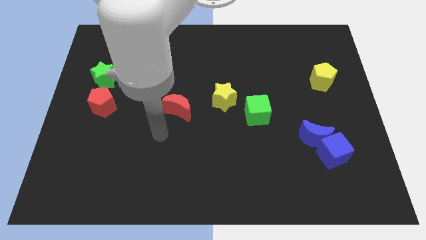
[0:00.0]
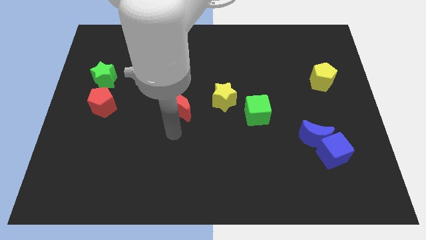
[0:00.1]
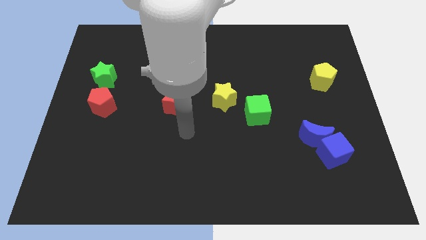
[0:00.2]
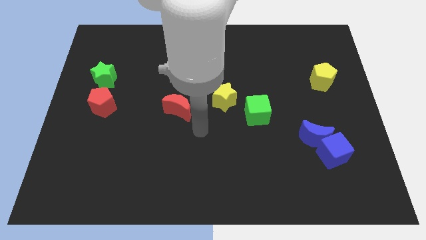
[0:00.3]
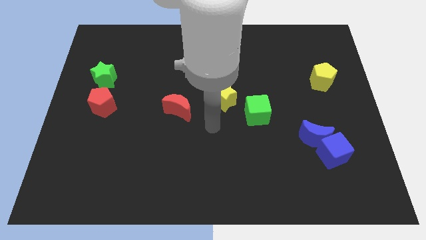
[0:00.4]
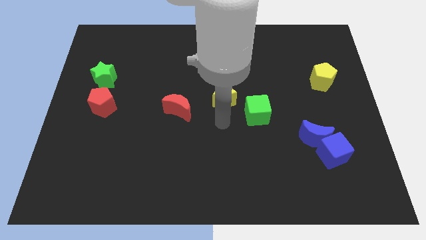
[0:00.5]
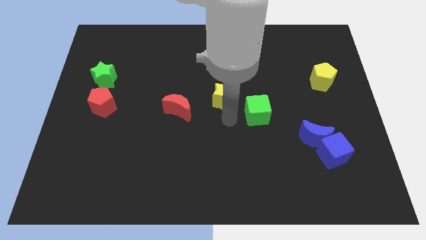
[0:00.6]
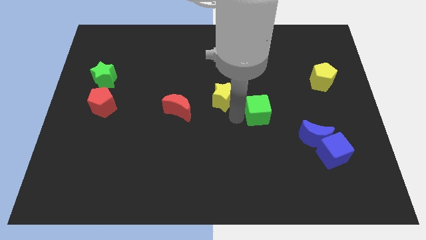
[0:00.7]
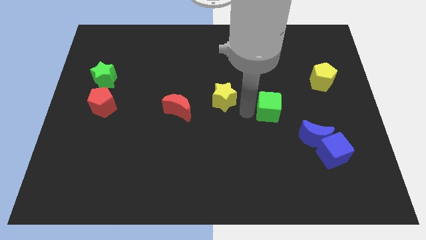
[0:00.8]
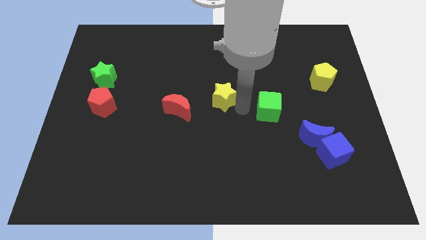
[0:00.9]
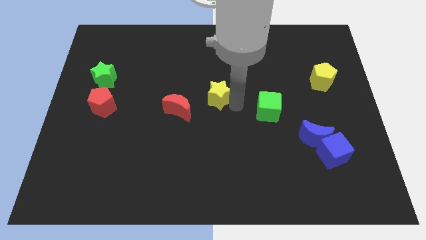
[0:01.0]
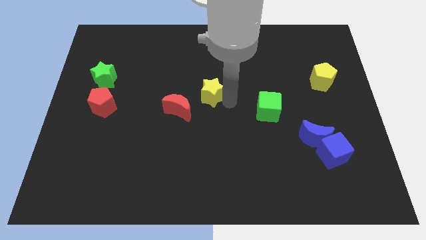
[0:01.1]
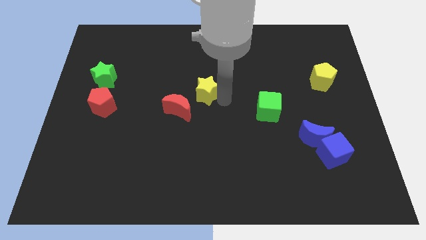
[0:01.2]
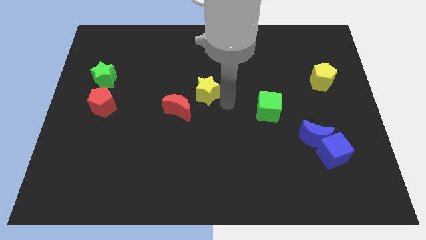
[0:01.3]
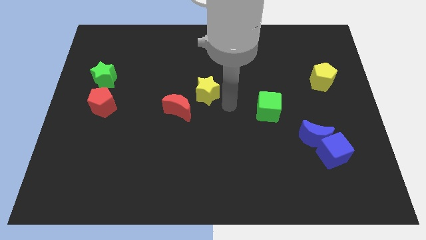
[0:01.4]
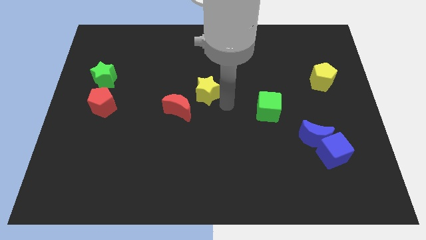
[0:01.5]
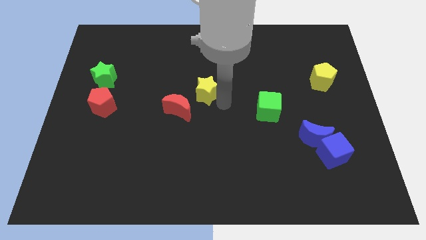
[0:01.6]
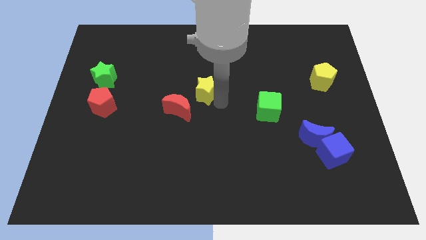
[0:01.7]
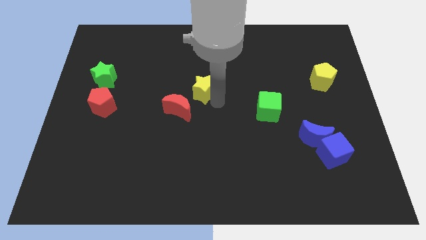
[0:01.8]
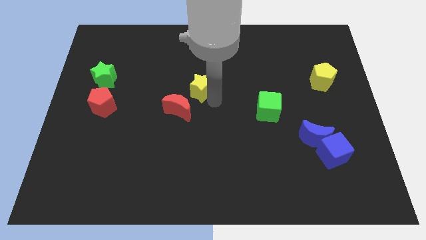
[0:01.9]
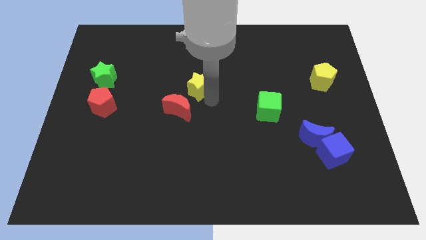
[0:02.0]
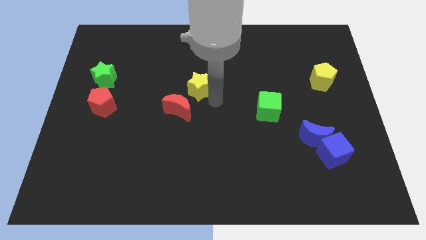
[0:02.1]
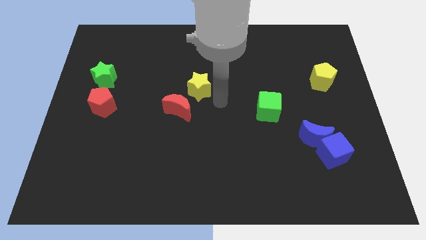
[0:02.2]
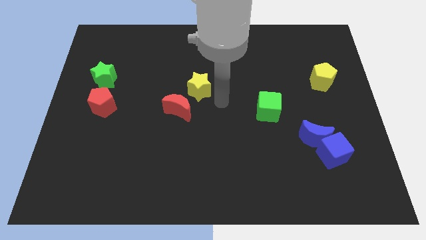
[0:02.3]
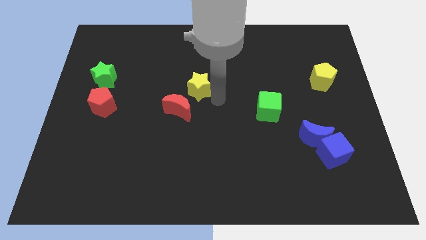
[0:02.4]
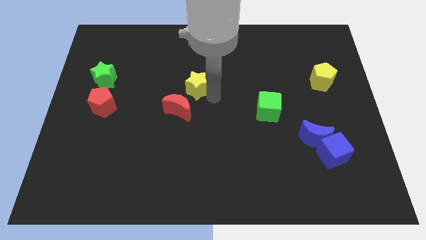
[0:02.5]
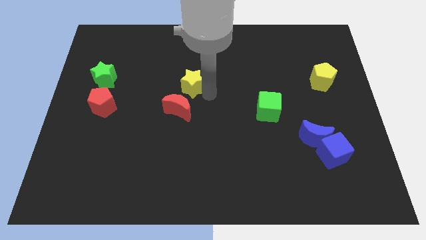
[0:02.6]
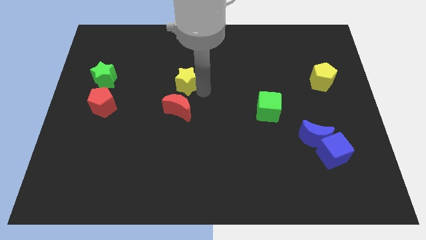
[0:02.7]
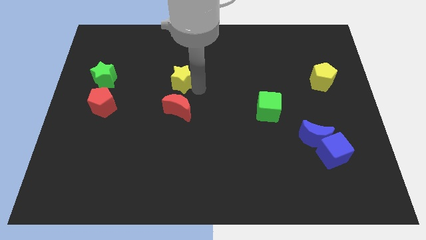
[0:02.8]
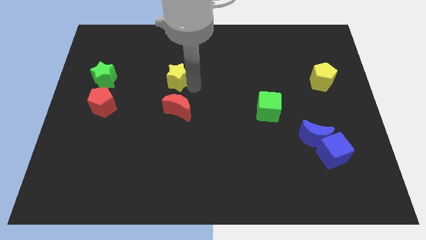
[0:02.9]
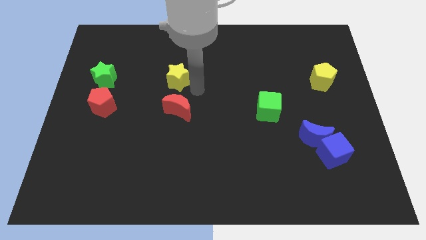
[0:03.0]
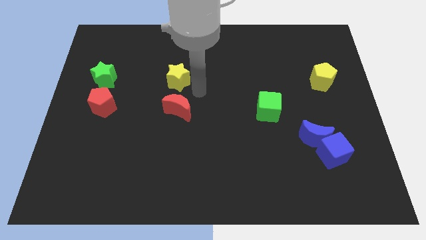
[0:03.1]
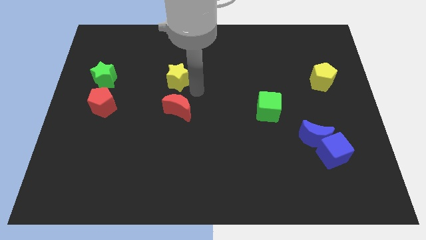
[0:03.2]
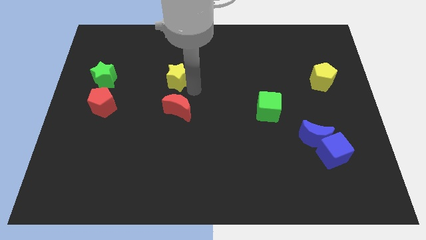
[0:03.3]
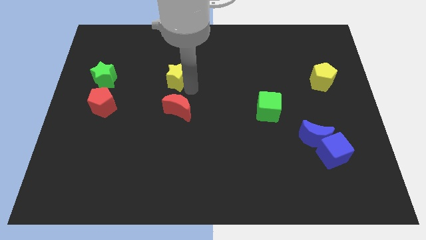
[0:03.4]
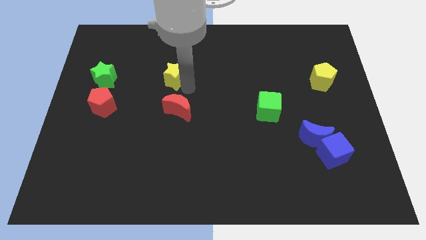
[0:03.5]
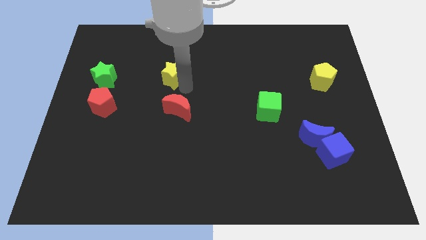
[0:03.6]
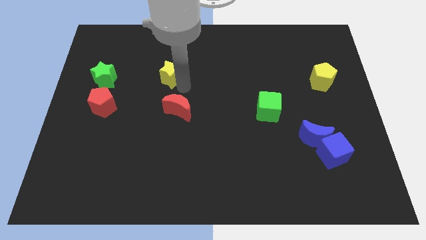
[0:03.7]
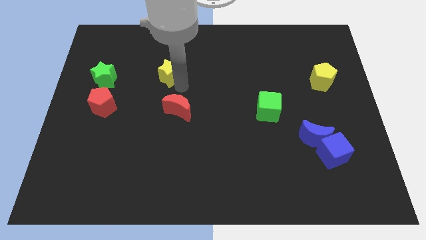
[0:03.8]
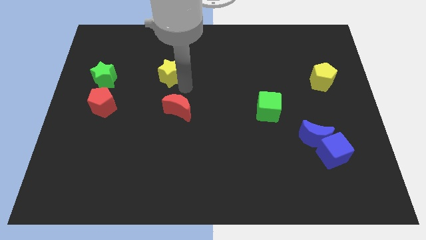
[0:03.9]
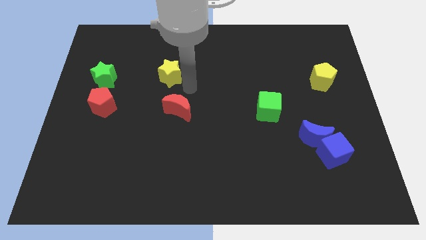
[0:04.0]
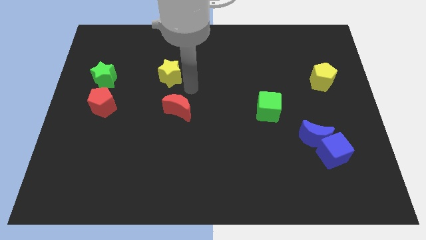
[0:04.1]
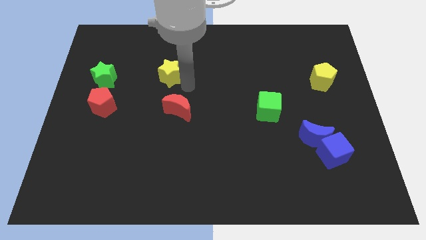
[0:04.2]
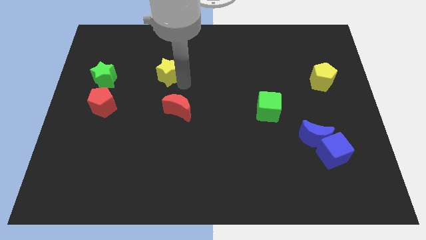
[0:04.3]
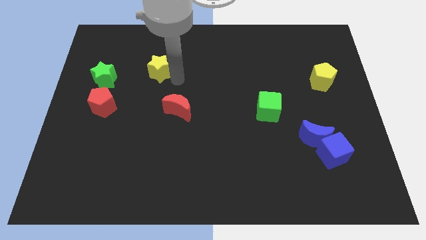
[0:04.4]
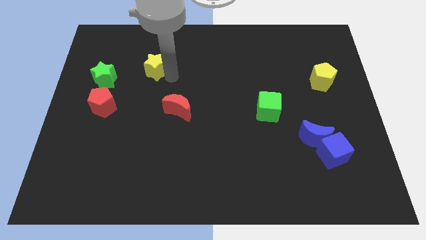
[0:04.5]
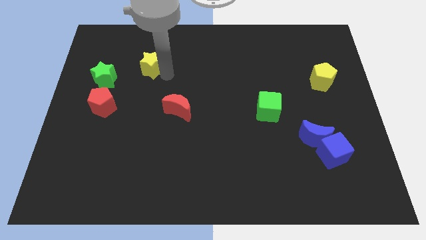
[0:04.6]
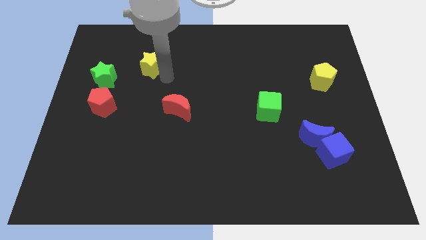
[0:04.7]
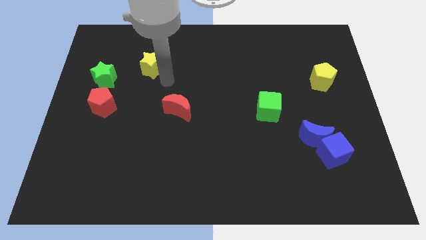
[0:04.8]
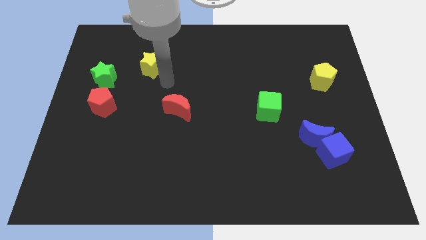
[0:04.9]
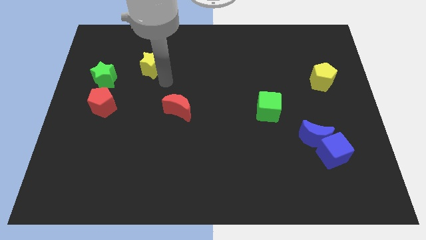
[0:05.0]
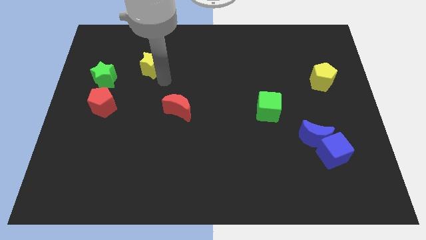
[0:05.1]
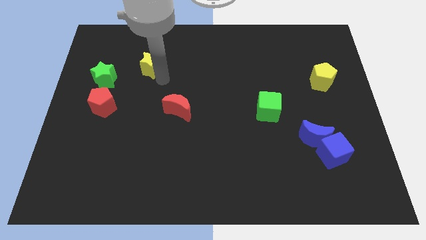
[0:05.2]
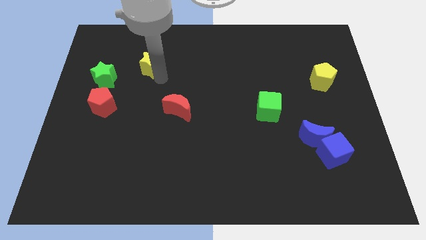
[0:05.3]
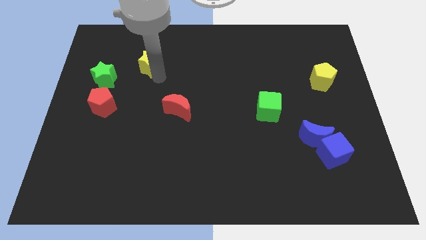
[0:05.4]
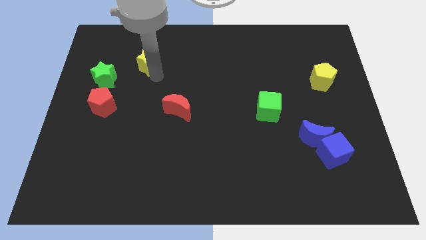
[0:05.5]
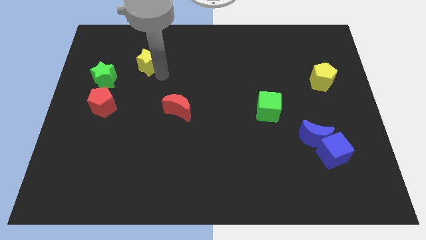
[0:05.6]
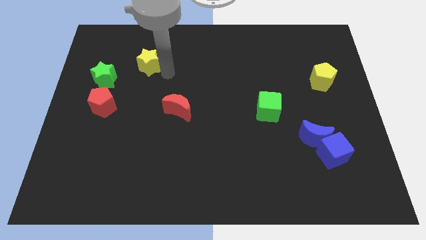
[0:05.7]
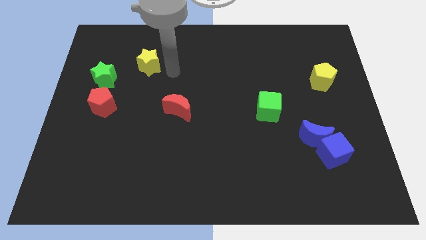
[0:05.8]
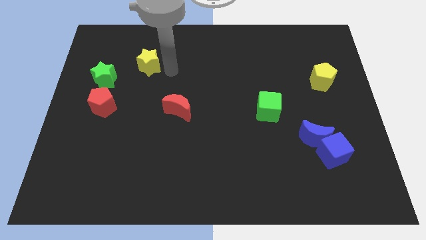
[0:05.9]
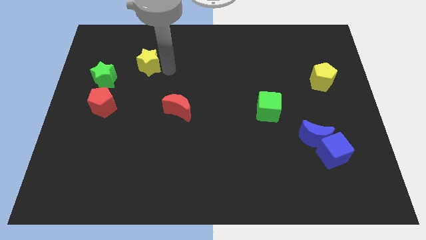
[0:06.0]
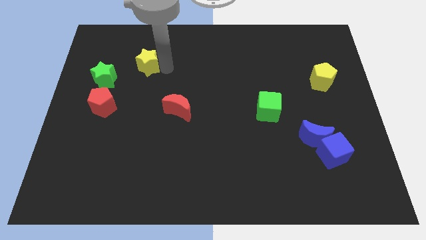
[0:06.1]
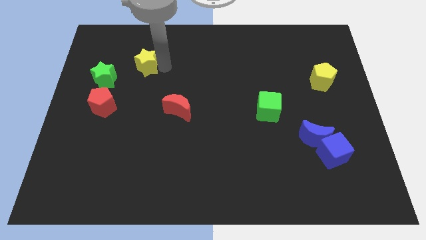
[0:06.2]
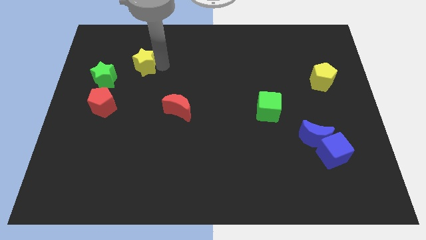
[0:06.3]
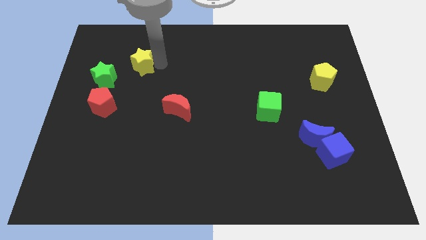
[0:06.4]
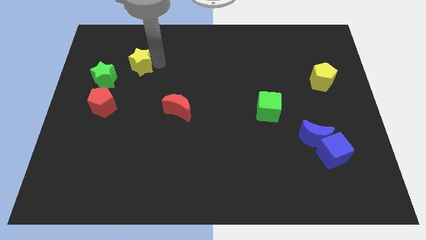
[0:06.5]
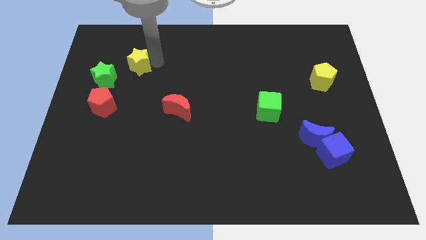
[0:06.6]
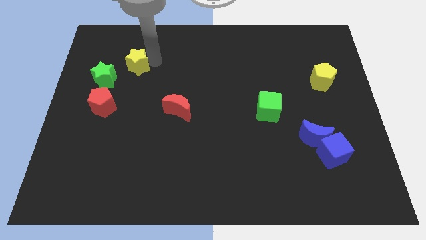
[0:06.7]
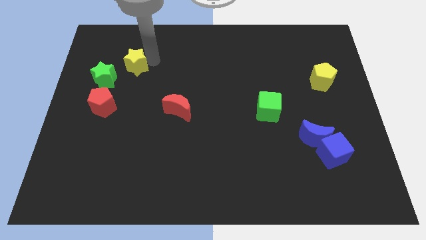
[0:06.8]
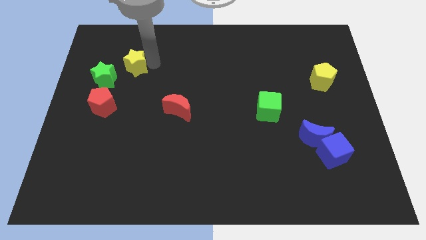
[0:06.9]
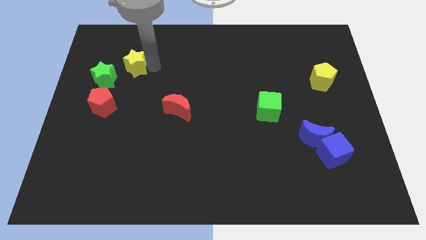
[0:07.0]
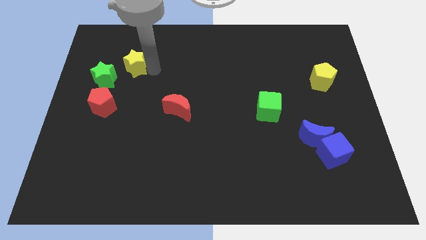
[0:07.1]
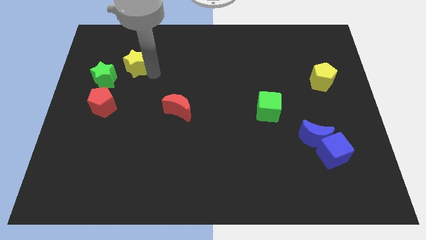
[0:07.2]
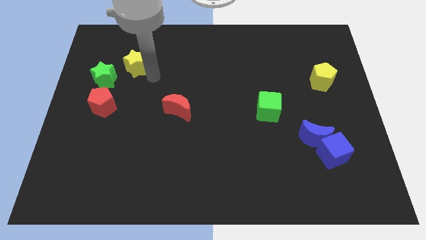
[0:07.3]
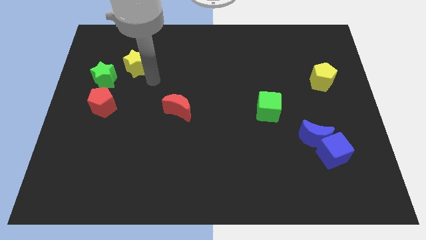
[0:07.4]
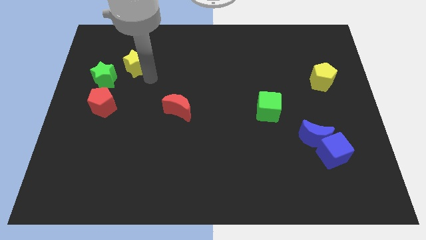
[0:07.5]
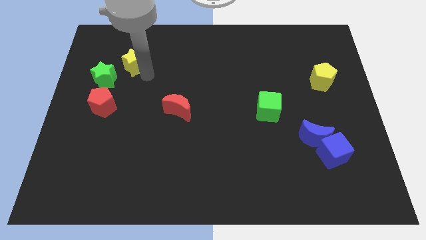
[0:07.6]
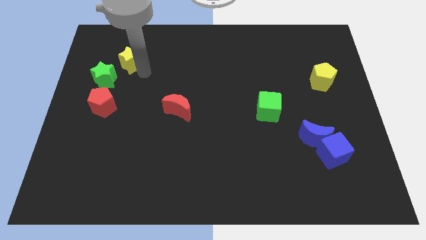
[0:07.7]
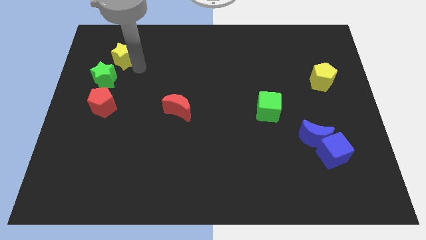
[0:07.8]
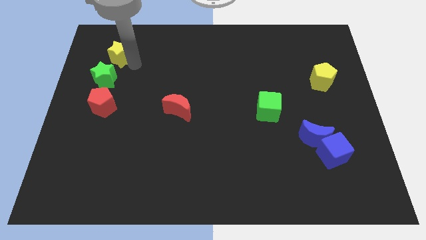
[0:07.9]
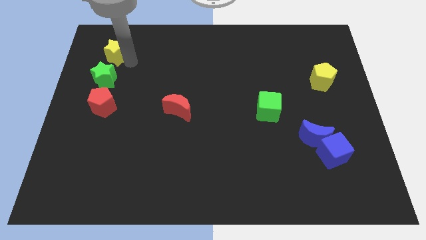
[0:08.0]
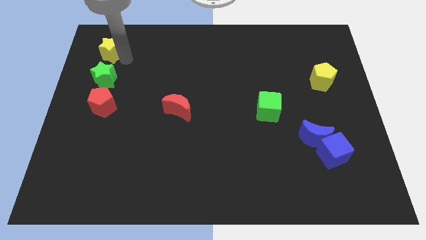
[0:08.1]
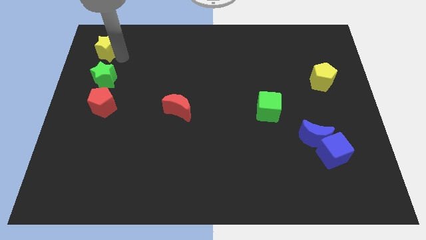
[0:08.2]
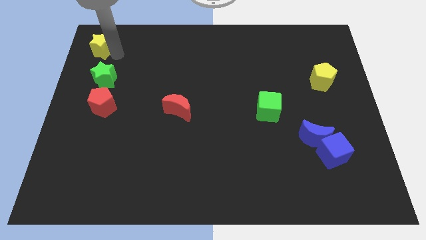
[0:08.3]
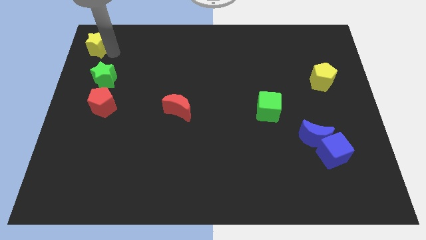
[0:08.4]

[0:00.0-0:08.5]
push the yellow star to the top left
